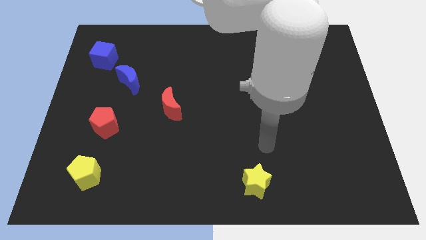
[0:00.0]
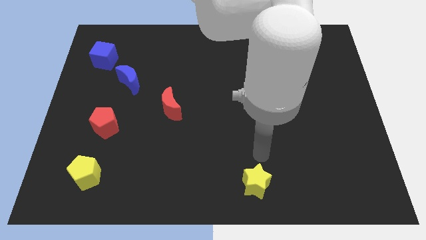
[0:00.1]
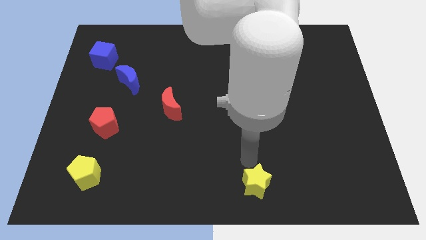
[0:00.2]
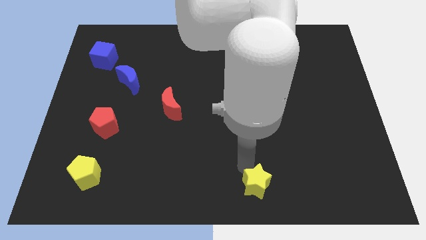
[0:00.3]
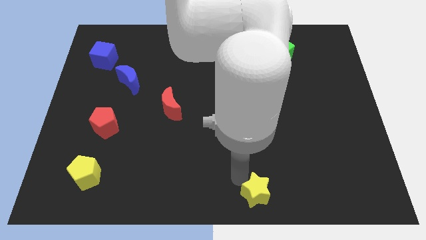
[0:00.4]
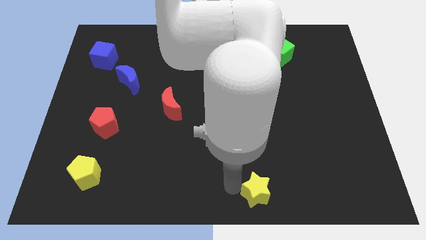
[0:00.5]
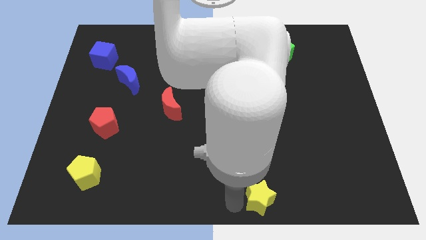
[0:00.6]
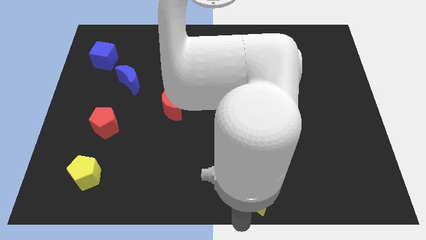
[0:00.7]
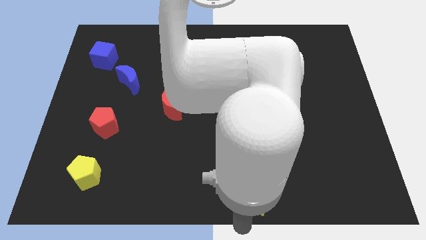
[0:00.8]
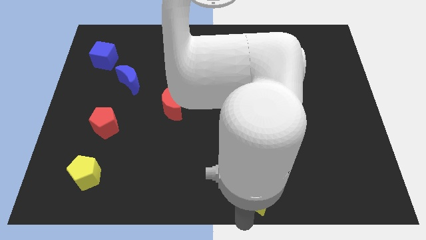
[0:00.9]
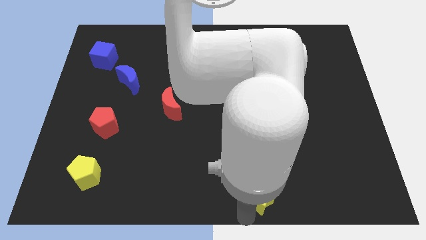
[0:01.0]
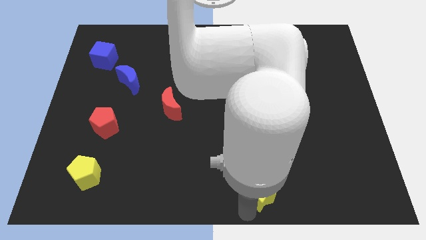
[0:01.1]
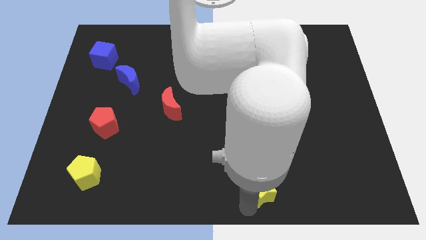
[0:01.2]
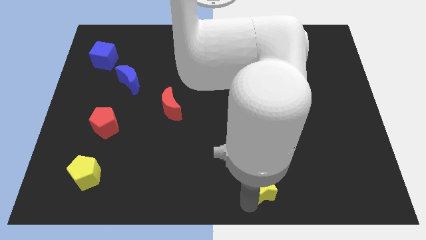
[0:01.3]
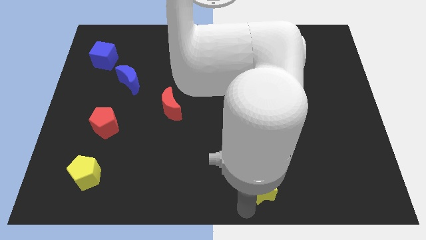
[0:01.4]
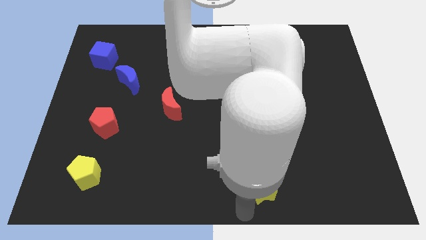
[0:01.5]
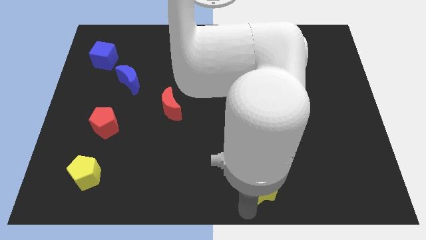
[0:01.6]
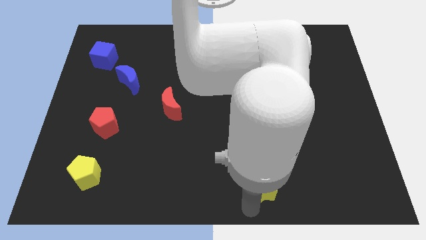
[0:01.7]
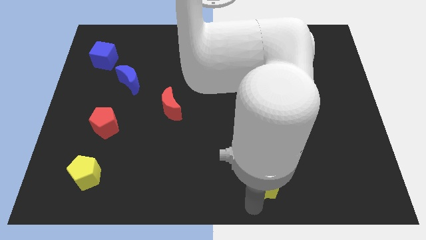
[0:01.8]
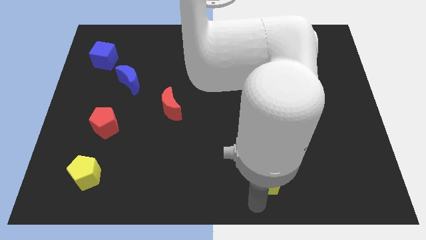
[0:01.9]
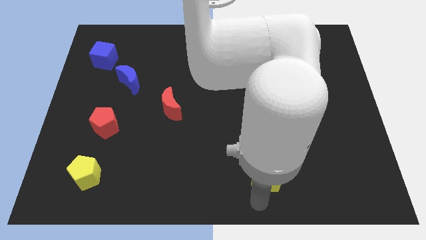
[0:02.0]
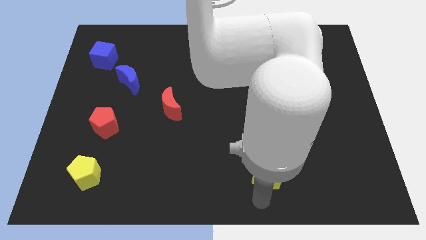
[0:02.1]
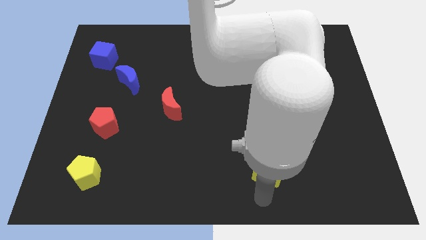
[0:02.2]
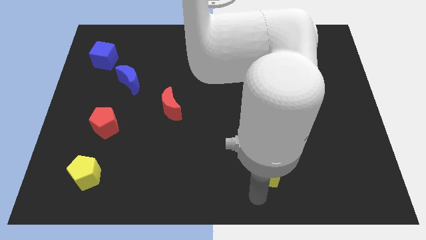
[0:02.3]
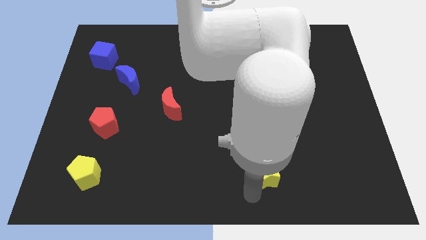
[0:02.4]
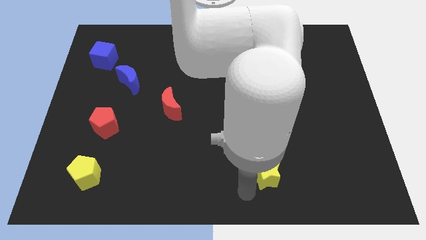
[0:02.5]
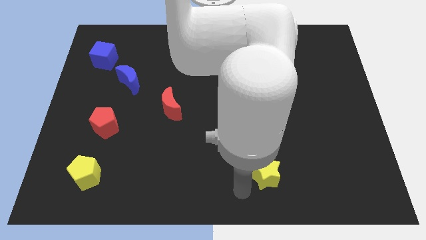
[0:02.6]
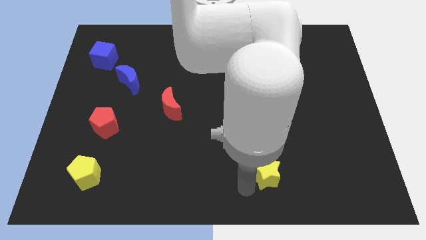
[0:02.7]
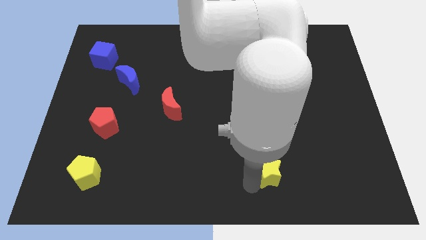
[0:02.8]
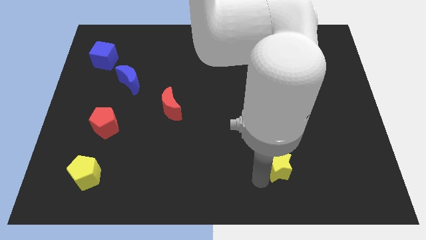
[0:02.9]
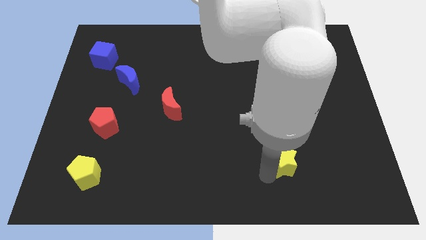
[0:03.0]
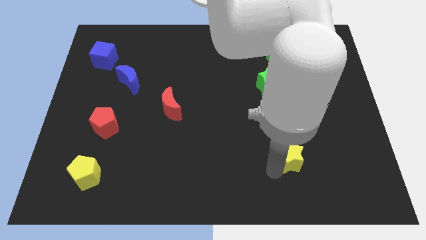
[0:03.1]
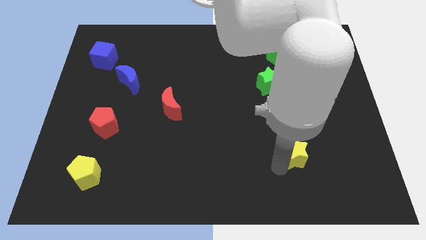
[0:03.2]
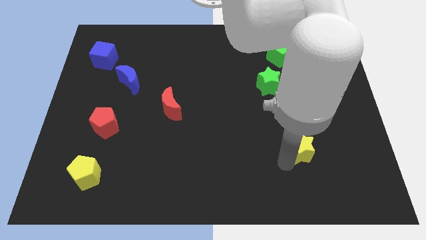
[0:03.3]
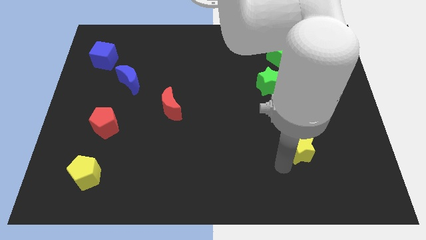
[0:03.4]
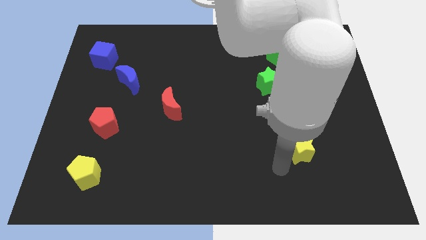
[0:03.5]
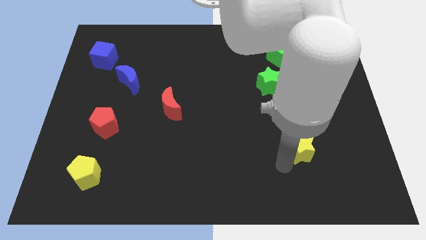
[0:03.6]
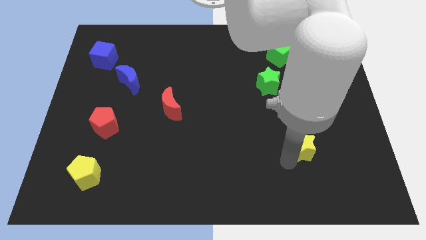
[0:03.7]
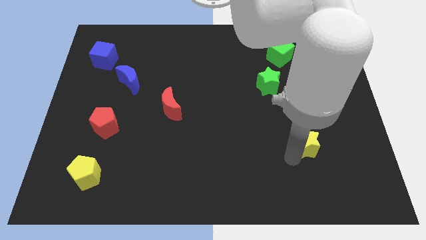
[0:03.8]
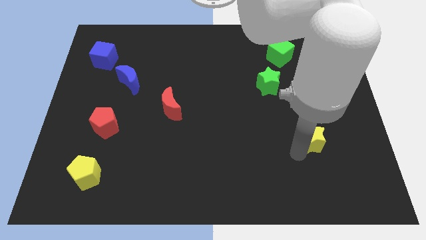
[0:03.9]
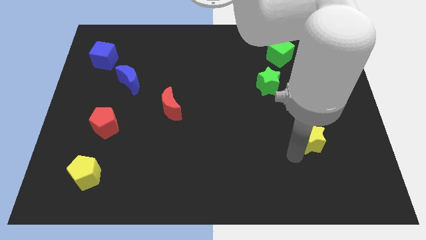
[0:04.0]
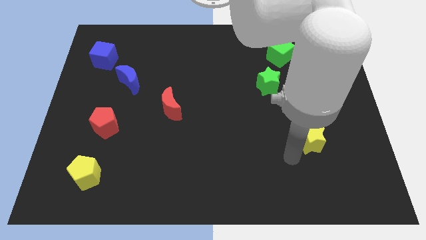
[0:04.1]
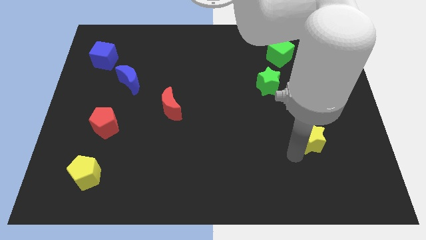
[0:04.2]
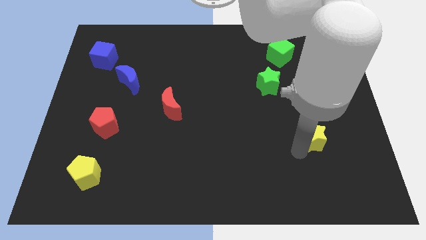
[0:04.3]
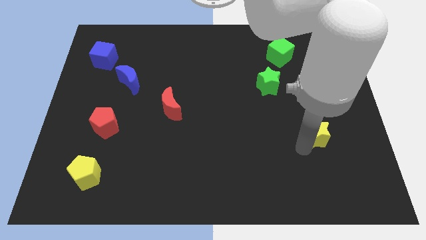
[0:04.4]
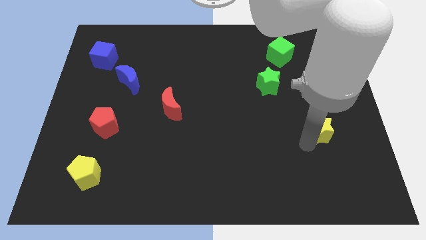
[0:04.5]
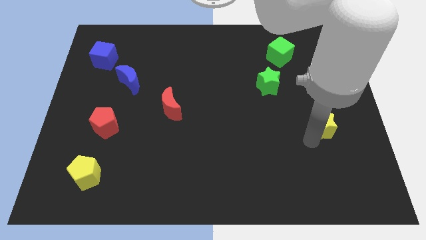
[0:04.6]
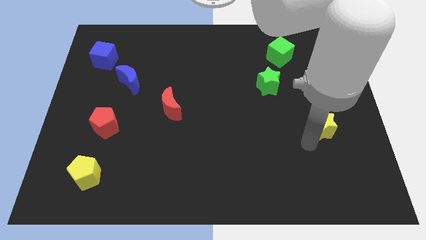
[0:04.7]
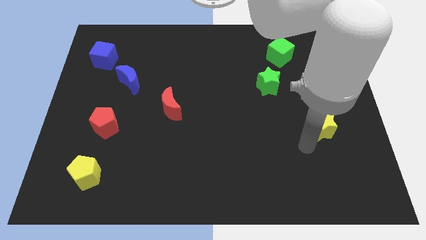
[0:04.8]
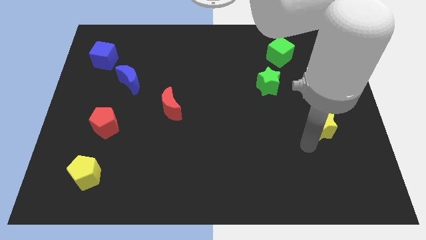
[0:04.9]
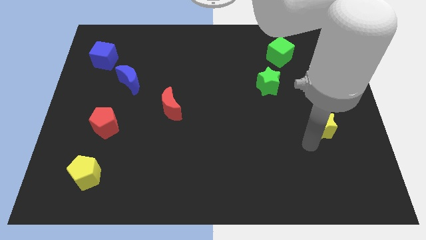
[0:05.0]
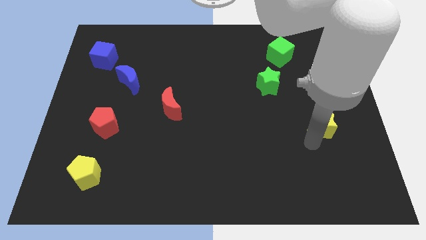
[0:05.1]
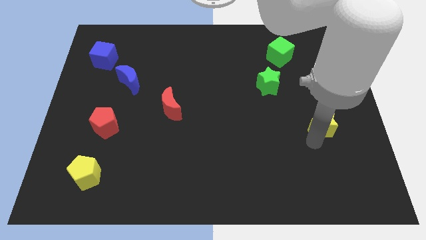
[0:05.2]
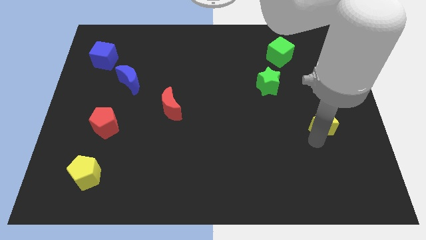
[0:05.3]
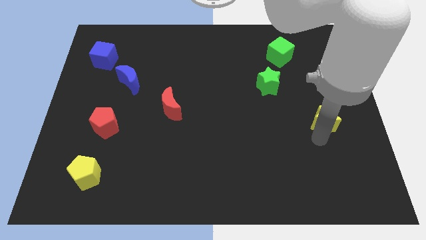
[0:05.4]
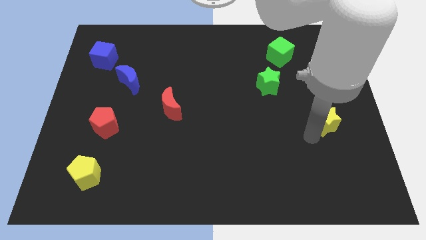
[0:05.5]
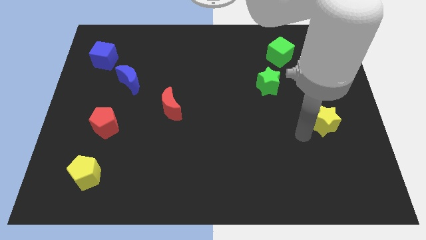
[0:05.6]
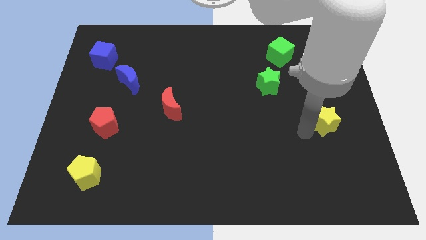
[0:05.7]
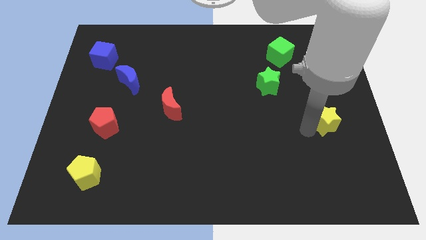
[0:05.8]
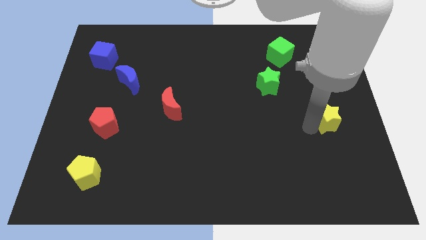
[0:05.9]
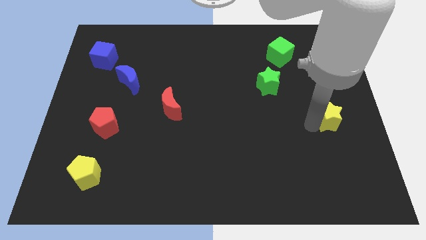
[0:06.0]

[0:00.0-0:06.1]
slide the yellow star to the right side of the board
